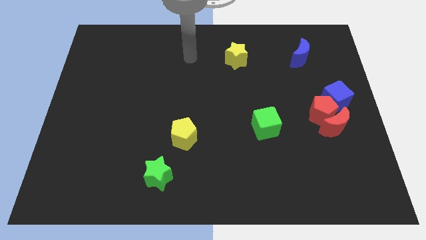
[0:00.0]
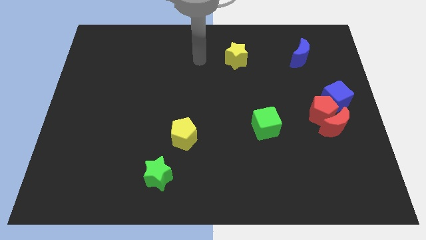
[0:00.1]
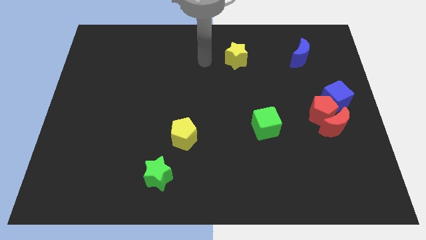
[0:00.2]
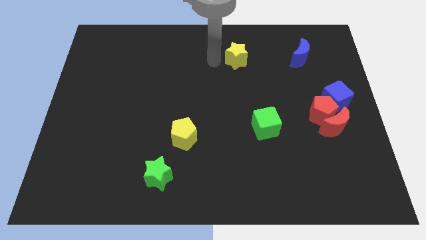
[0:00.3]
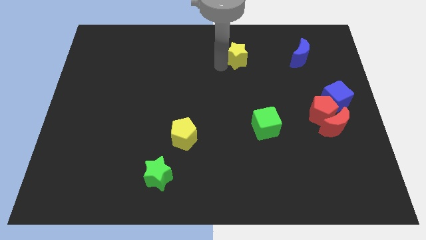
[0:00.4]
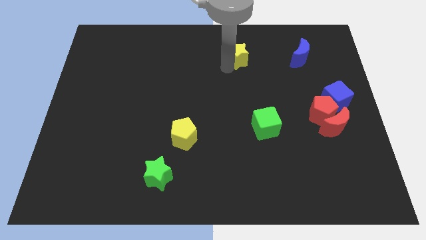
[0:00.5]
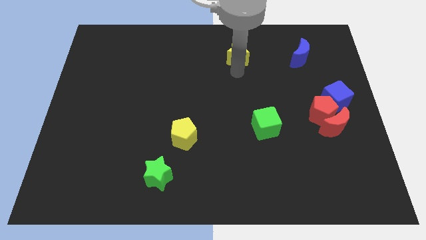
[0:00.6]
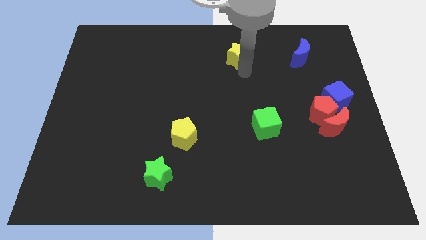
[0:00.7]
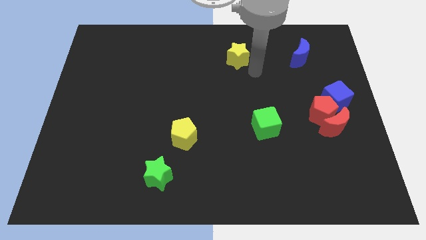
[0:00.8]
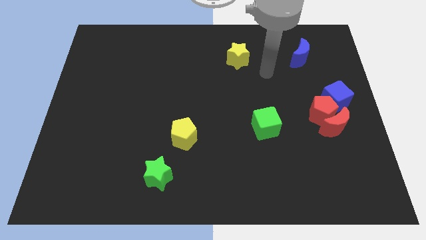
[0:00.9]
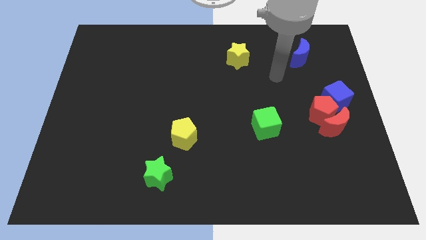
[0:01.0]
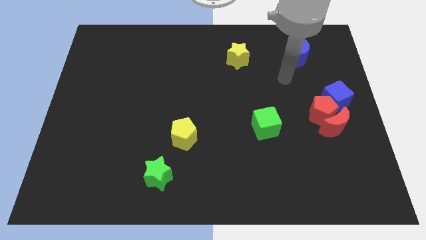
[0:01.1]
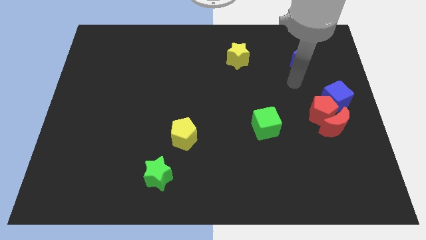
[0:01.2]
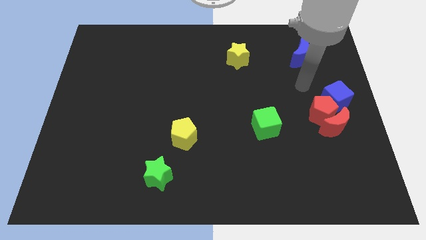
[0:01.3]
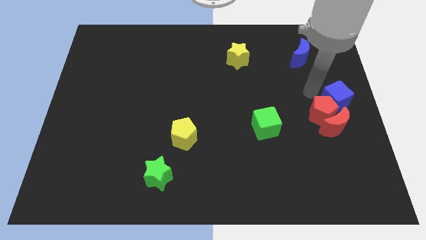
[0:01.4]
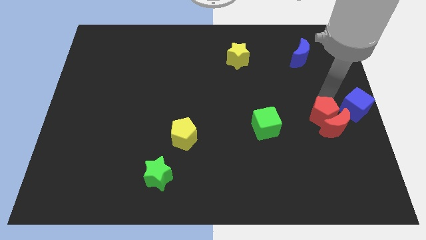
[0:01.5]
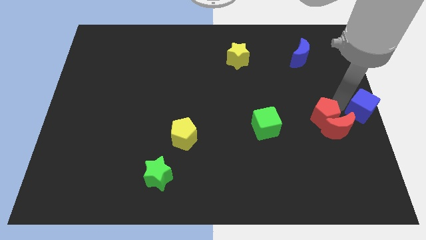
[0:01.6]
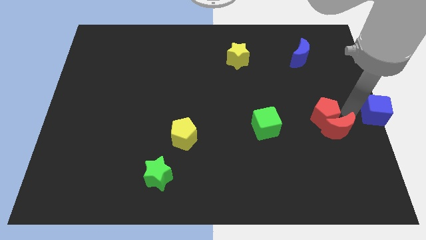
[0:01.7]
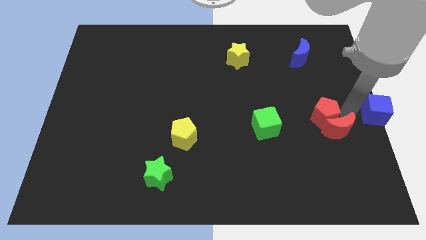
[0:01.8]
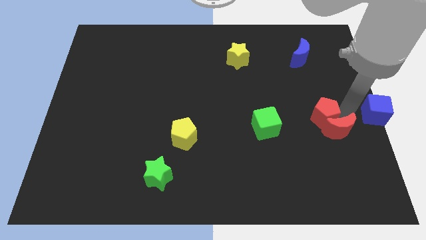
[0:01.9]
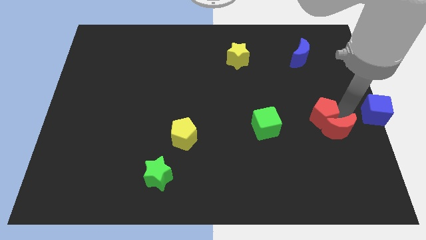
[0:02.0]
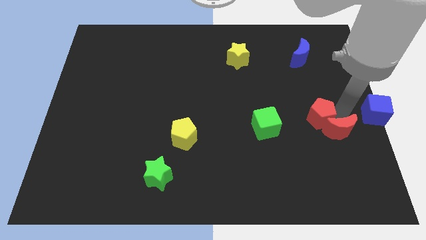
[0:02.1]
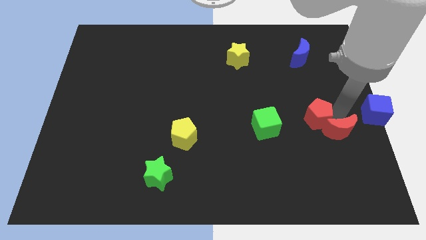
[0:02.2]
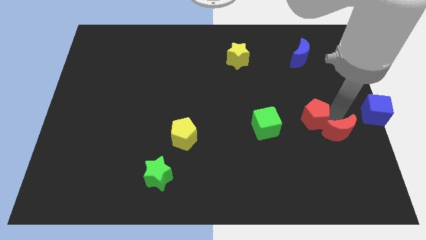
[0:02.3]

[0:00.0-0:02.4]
pull the red pentagon apart from the red moon and blue cube

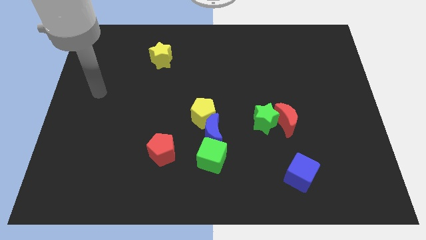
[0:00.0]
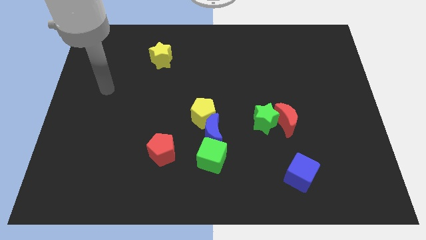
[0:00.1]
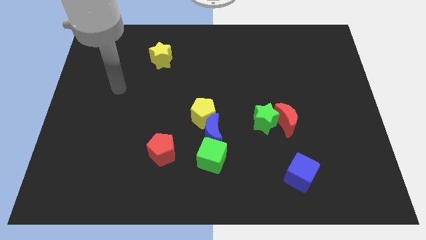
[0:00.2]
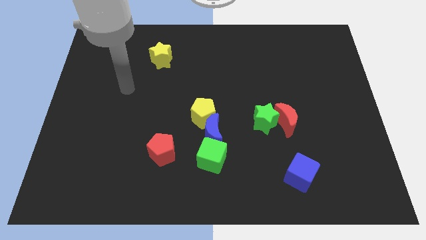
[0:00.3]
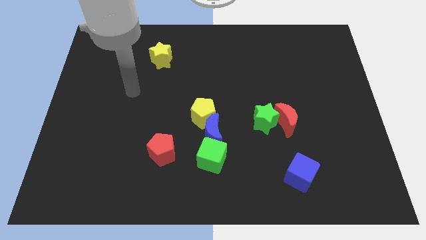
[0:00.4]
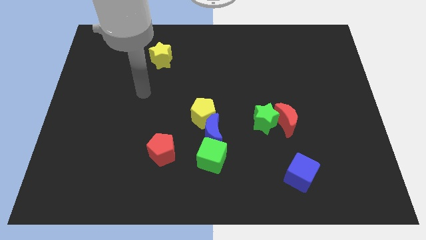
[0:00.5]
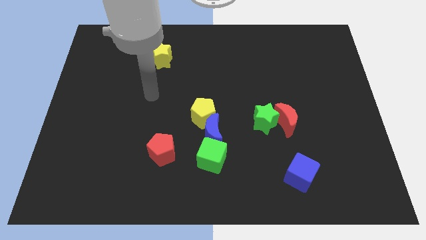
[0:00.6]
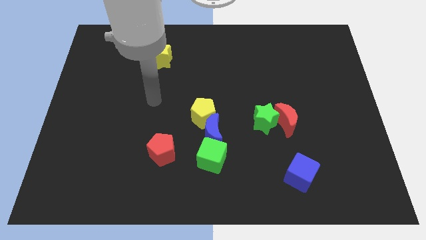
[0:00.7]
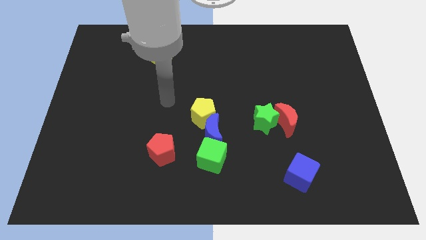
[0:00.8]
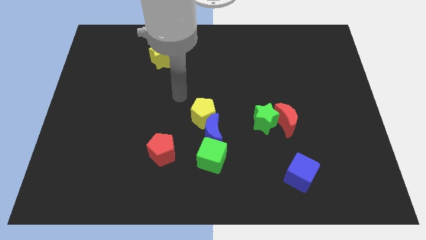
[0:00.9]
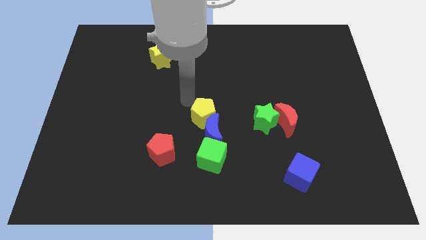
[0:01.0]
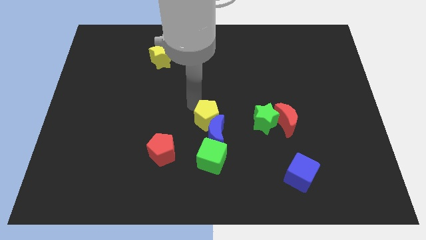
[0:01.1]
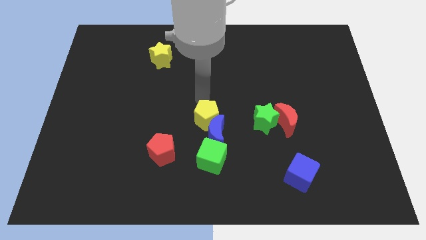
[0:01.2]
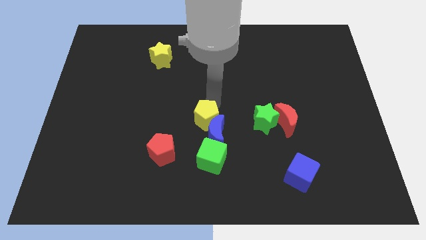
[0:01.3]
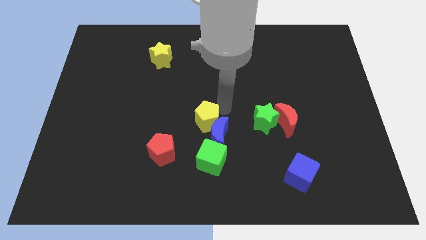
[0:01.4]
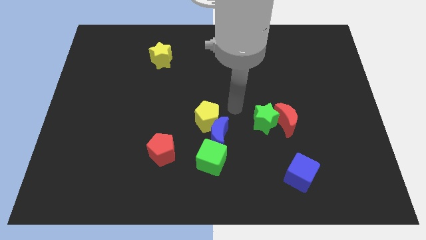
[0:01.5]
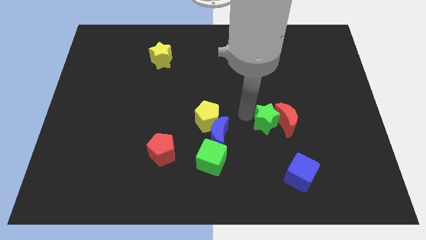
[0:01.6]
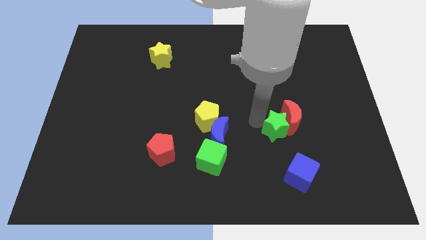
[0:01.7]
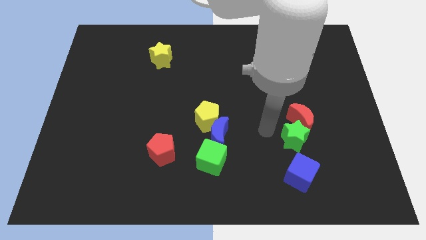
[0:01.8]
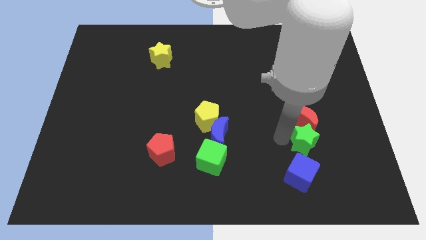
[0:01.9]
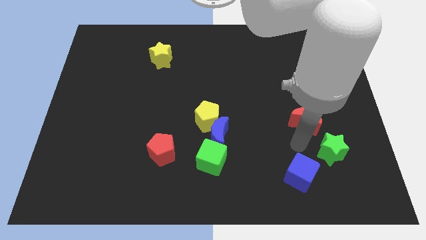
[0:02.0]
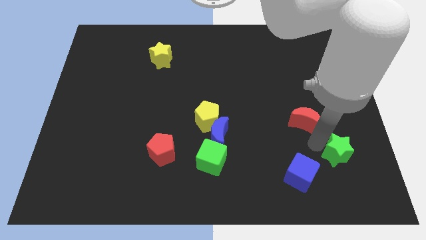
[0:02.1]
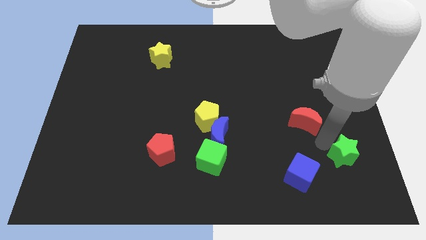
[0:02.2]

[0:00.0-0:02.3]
pull the red moon apart from the green star

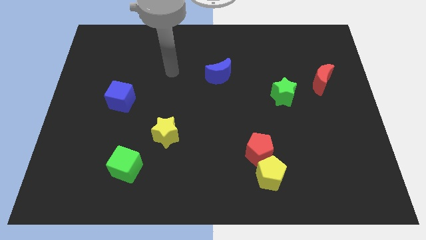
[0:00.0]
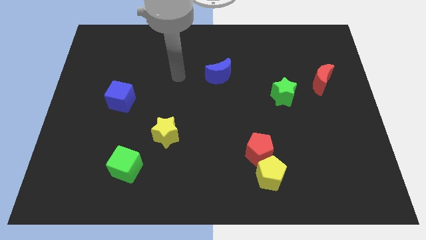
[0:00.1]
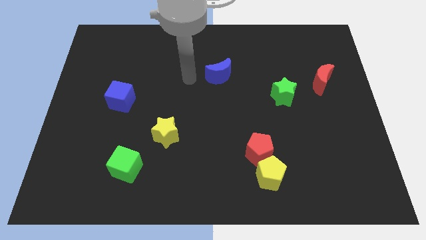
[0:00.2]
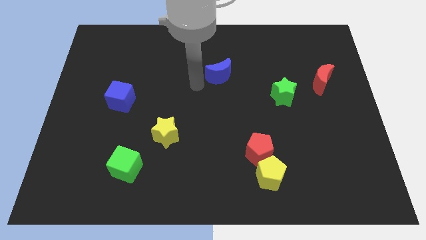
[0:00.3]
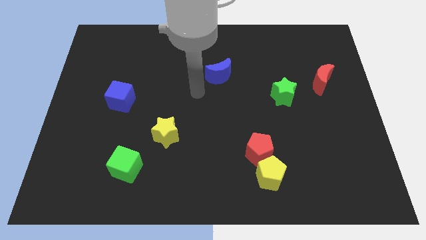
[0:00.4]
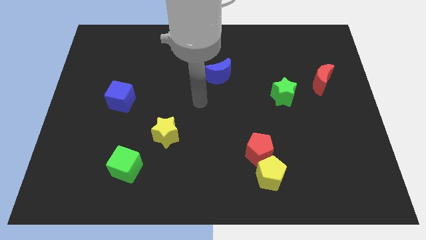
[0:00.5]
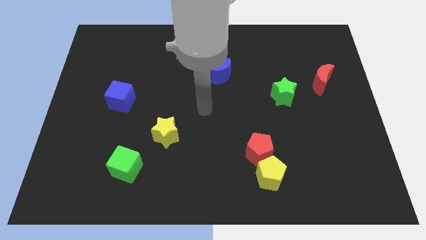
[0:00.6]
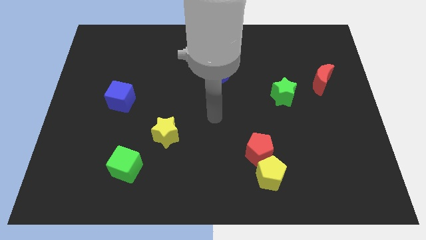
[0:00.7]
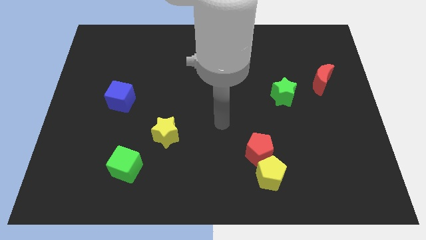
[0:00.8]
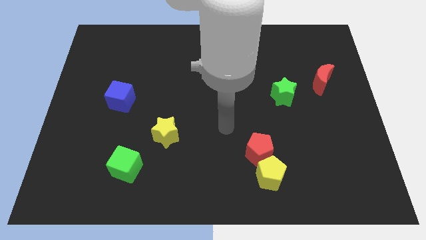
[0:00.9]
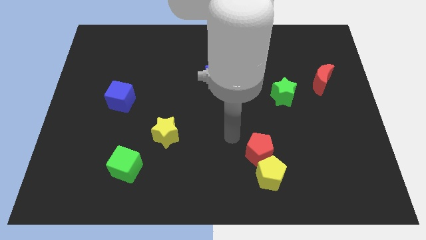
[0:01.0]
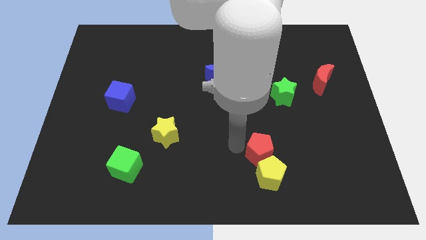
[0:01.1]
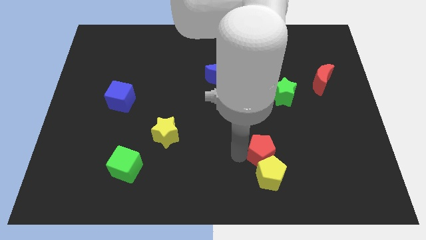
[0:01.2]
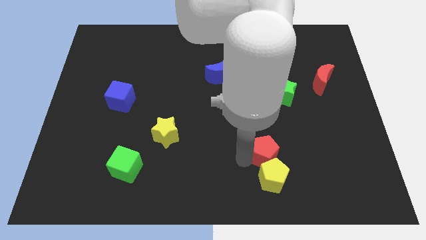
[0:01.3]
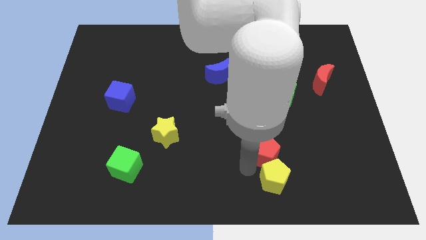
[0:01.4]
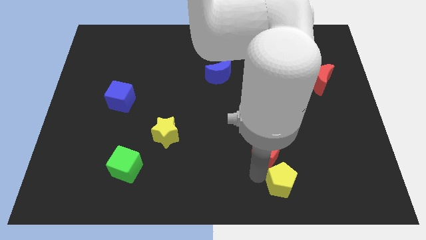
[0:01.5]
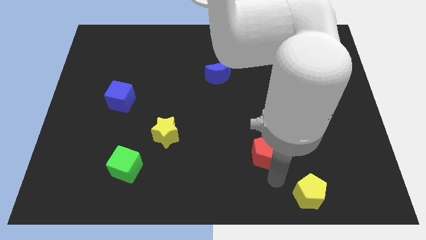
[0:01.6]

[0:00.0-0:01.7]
move the red pentagon away from the yellow pentagon

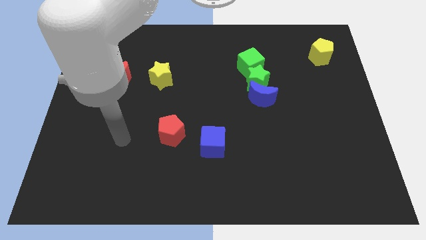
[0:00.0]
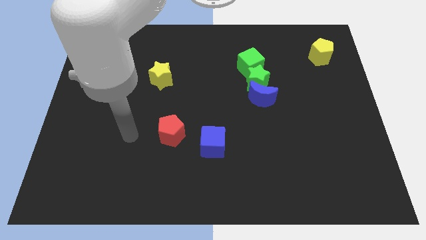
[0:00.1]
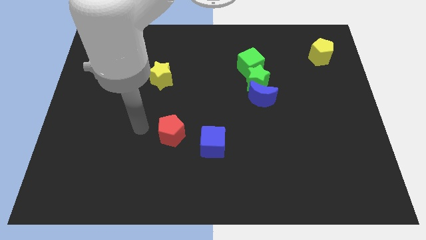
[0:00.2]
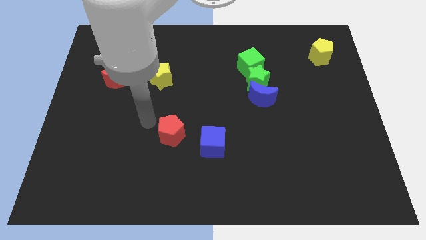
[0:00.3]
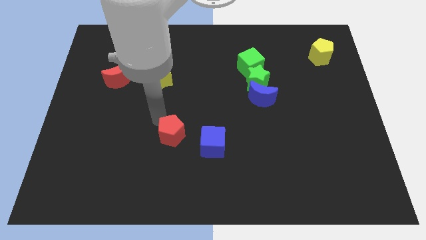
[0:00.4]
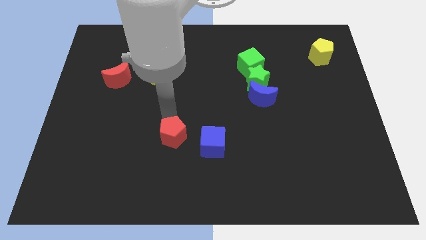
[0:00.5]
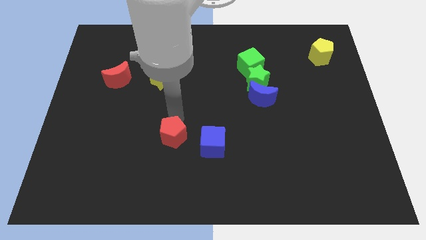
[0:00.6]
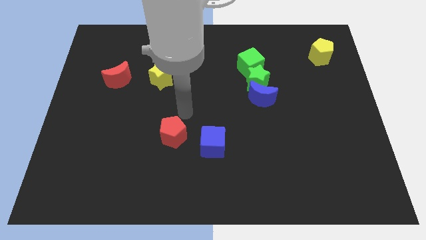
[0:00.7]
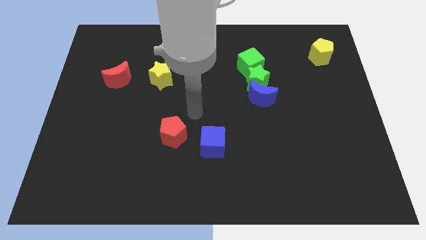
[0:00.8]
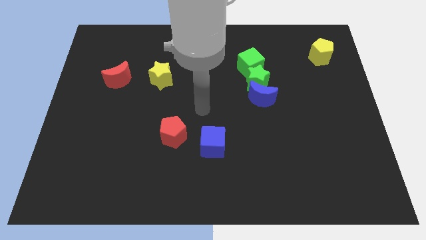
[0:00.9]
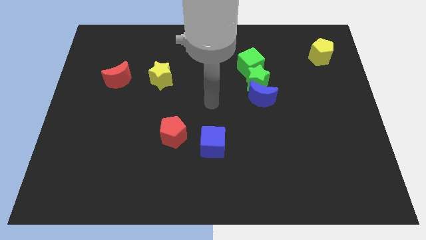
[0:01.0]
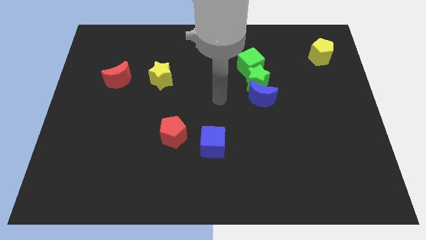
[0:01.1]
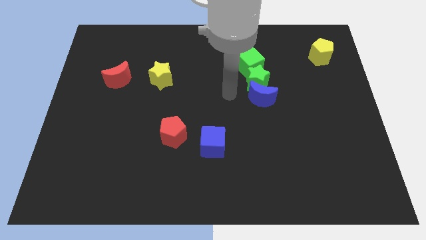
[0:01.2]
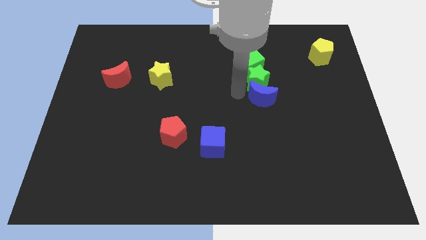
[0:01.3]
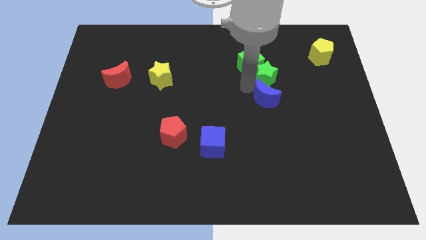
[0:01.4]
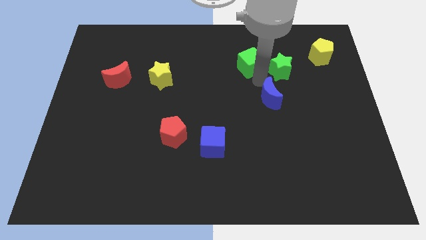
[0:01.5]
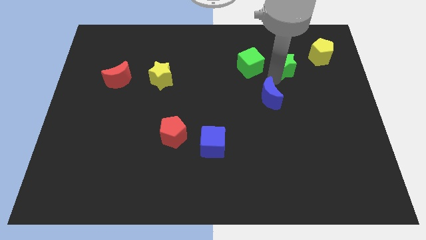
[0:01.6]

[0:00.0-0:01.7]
pull the blue moon apart from the green star

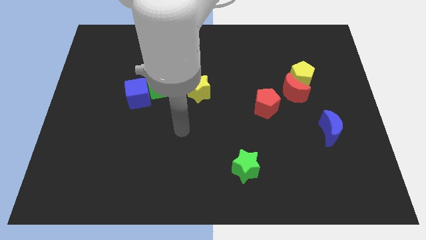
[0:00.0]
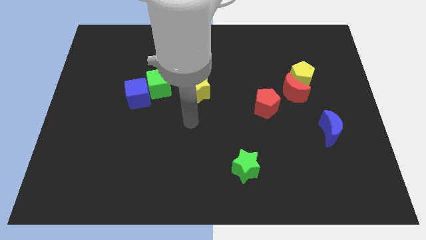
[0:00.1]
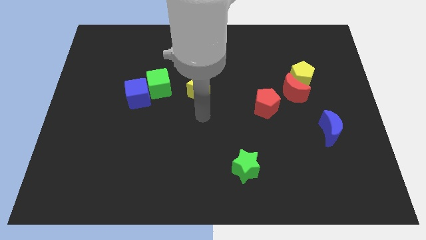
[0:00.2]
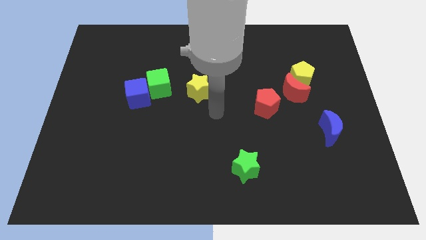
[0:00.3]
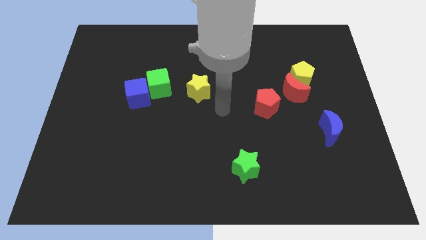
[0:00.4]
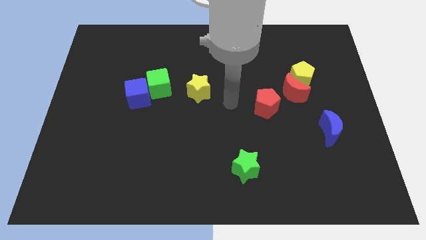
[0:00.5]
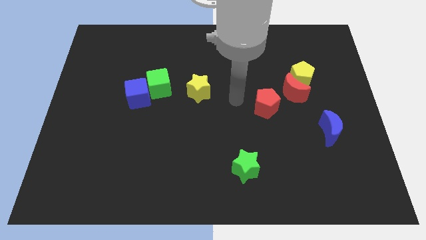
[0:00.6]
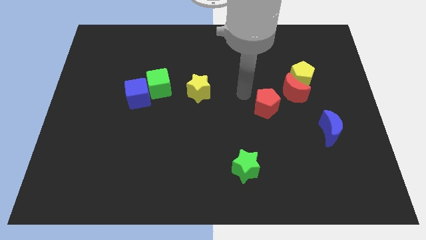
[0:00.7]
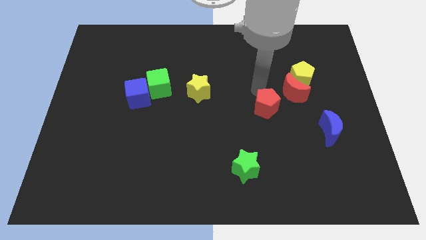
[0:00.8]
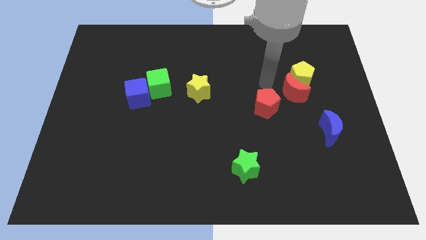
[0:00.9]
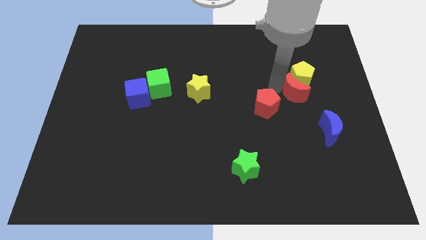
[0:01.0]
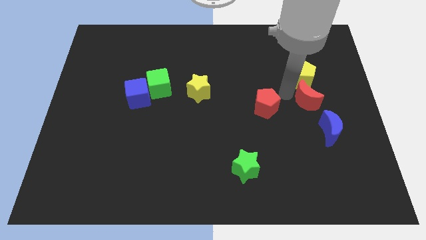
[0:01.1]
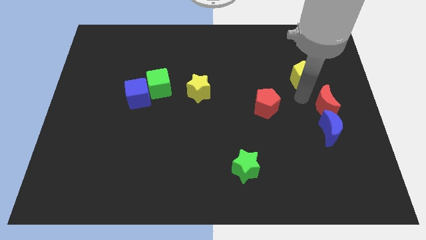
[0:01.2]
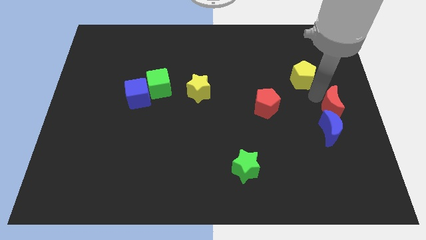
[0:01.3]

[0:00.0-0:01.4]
pull the yellow pentagon apart from the red moon
